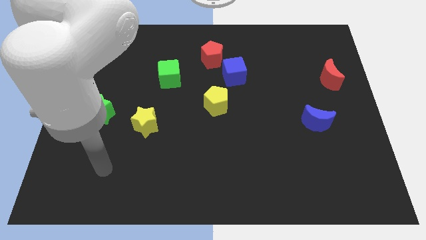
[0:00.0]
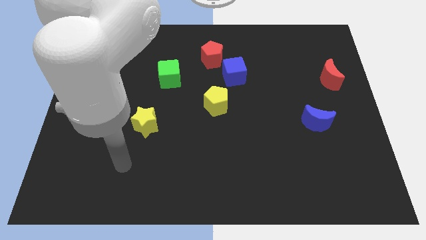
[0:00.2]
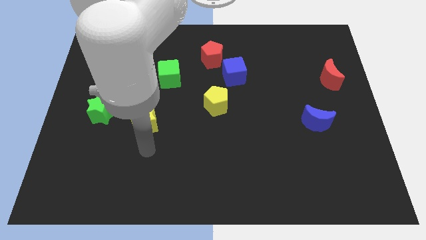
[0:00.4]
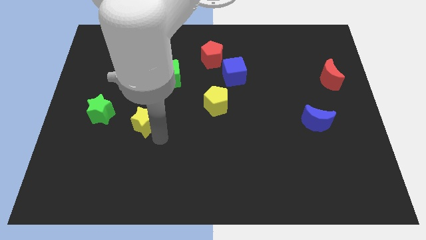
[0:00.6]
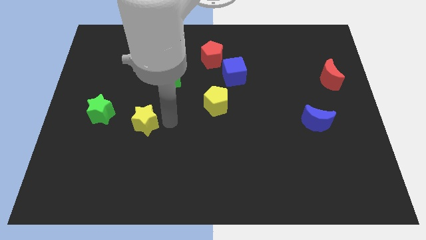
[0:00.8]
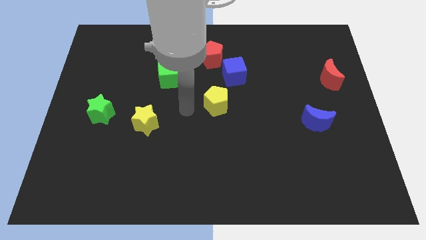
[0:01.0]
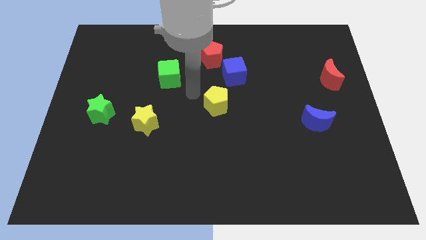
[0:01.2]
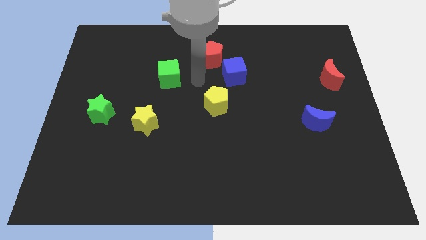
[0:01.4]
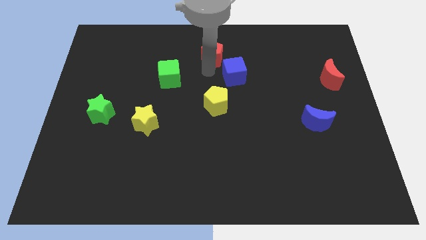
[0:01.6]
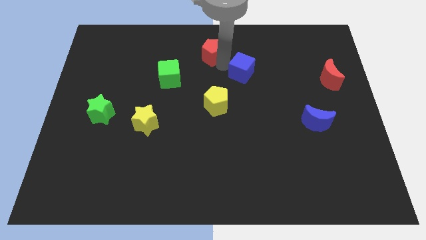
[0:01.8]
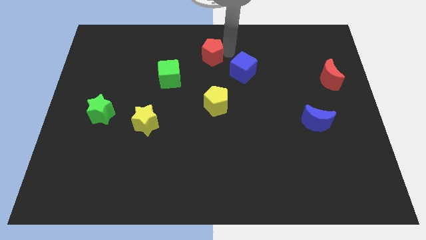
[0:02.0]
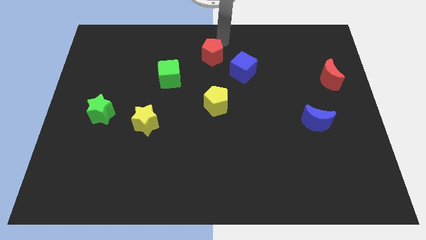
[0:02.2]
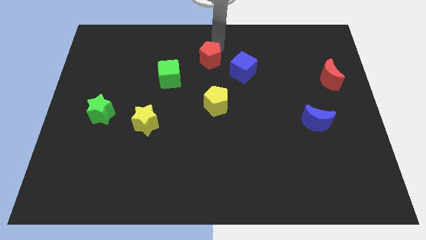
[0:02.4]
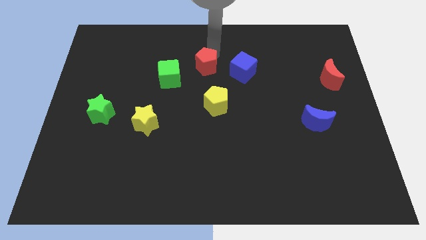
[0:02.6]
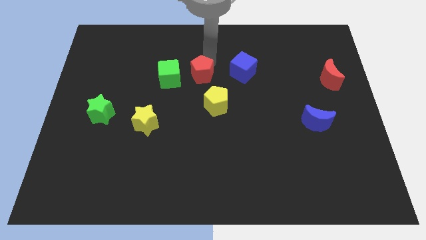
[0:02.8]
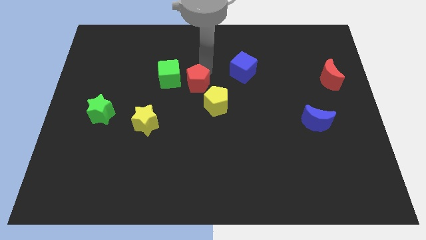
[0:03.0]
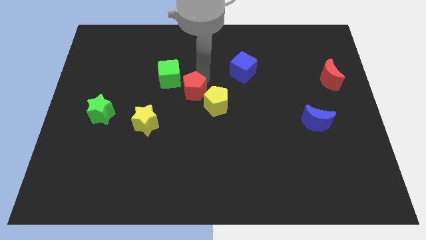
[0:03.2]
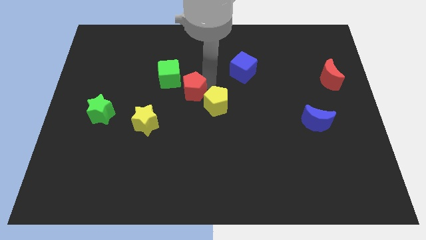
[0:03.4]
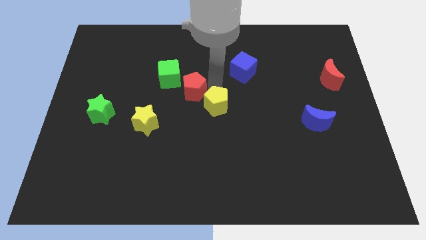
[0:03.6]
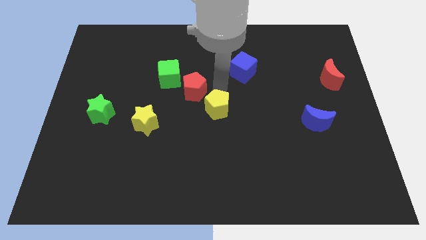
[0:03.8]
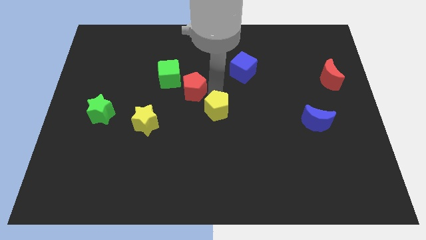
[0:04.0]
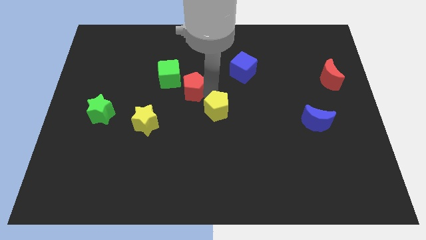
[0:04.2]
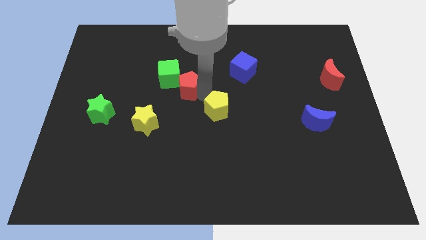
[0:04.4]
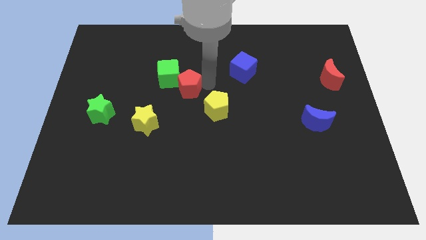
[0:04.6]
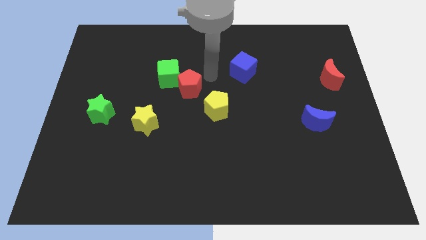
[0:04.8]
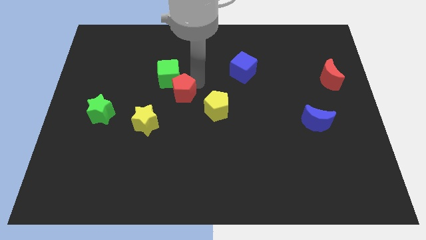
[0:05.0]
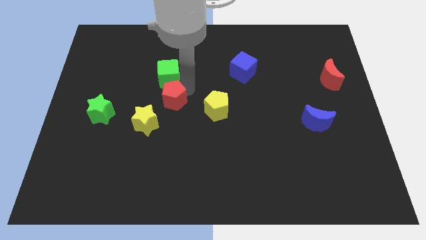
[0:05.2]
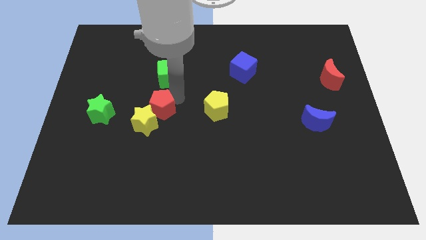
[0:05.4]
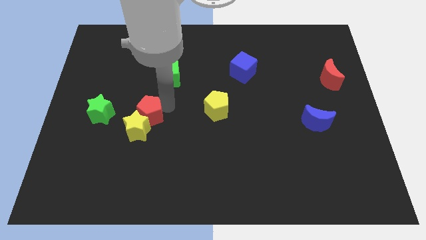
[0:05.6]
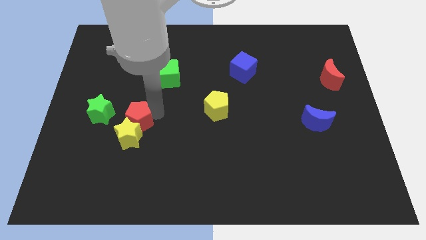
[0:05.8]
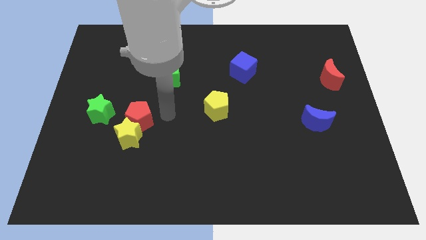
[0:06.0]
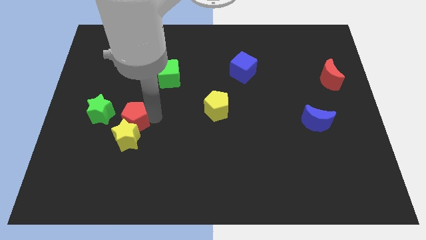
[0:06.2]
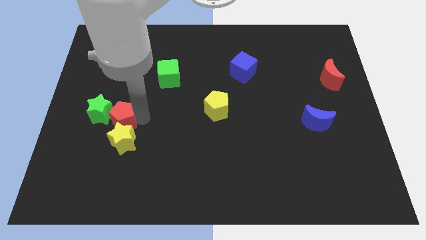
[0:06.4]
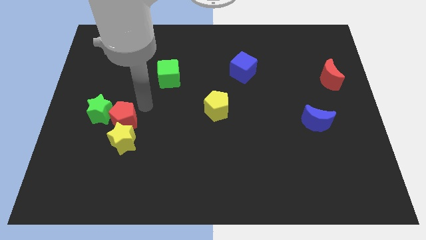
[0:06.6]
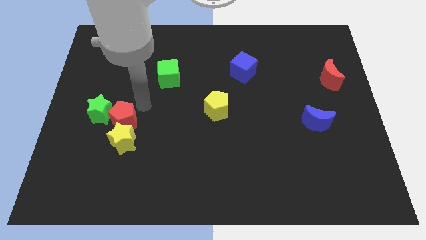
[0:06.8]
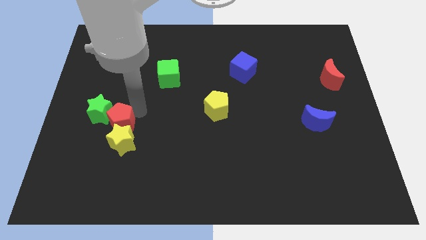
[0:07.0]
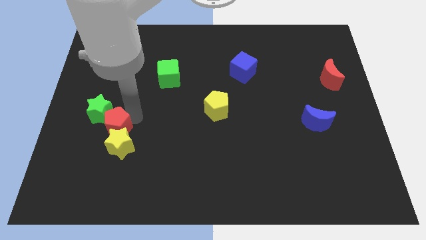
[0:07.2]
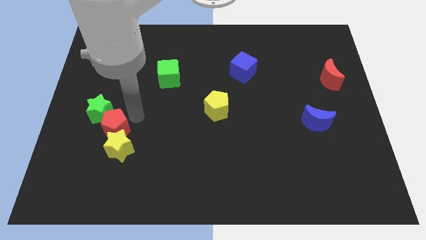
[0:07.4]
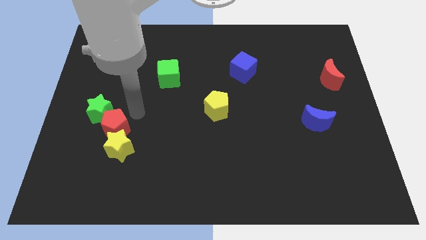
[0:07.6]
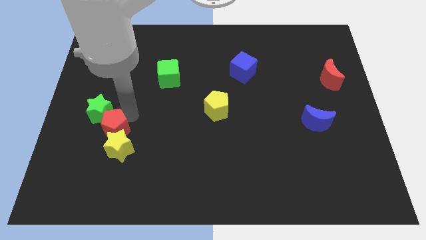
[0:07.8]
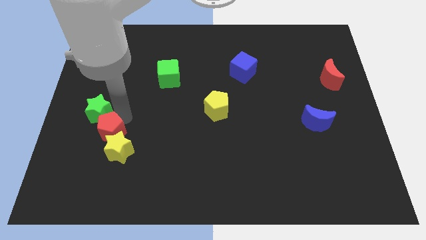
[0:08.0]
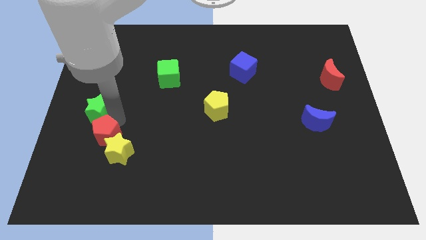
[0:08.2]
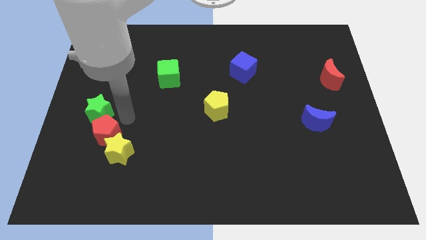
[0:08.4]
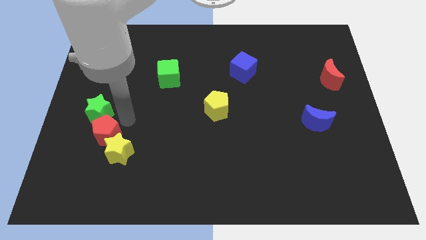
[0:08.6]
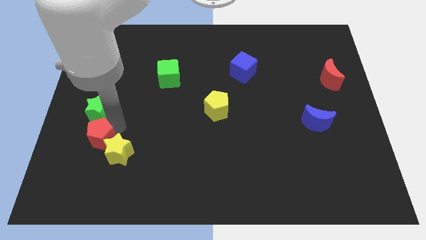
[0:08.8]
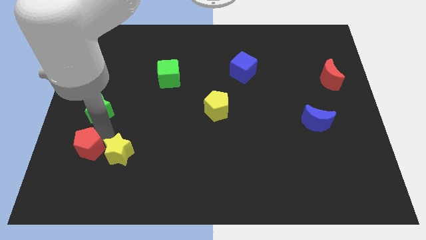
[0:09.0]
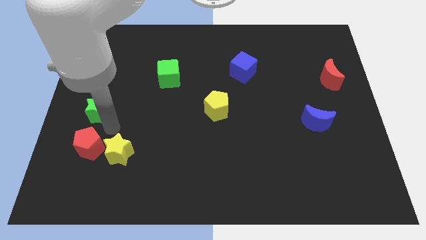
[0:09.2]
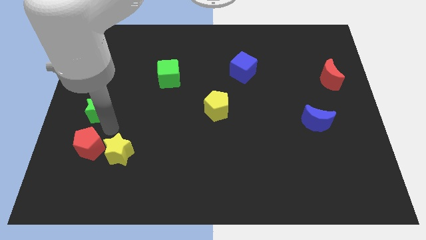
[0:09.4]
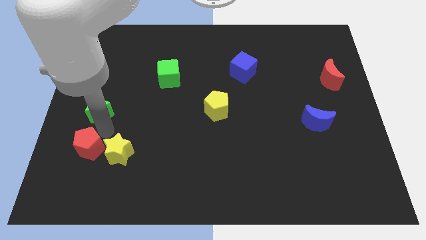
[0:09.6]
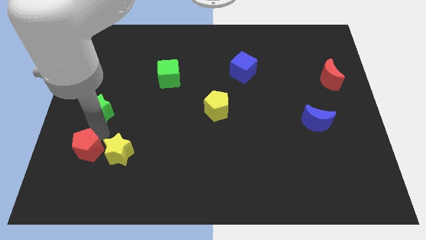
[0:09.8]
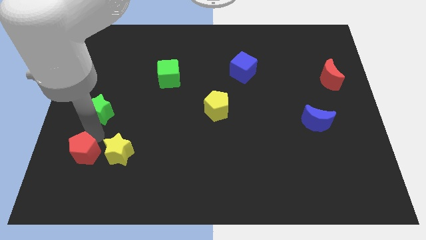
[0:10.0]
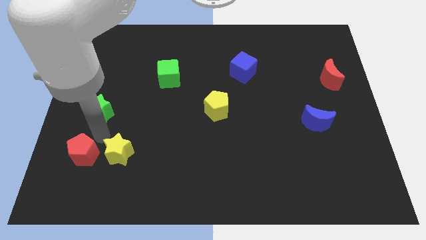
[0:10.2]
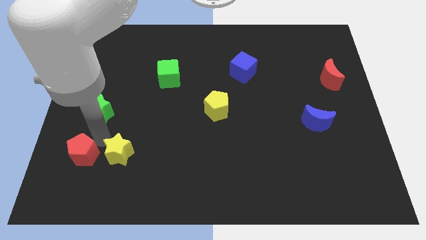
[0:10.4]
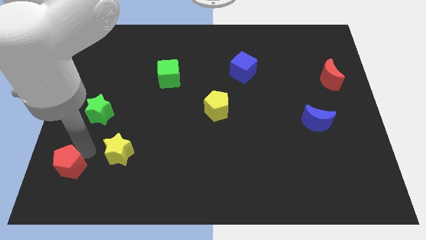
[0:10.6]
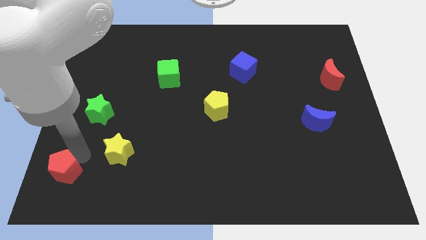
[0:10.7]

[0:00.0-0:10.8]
push the red pentagon to the bottom left corner
